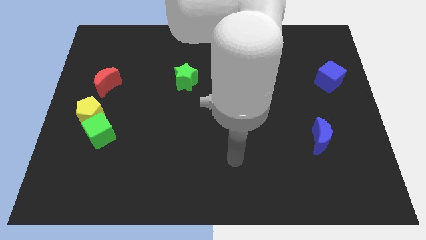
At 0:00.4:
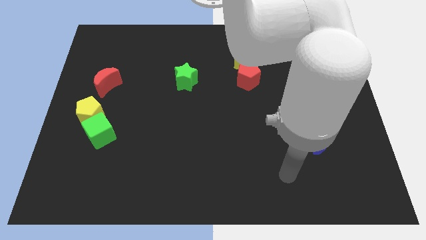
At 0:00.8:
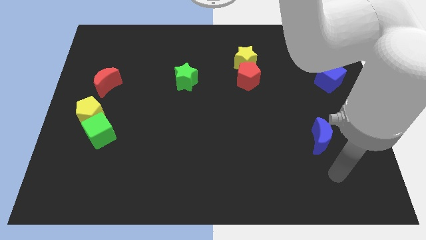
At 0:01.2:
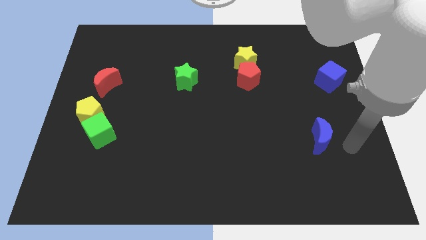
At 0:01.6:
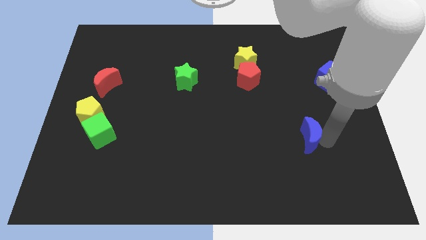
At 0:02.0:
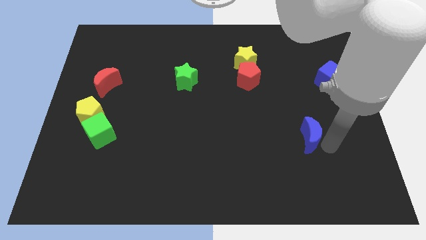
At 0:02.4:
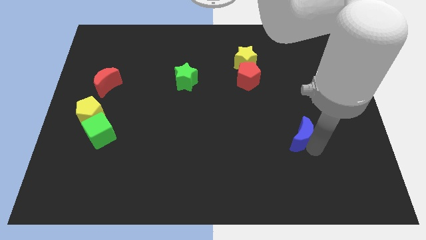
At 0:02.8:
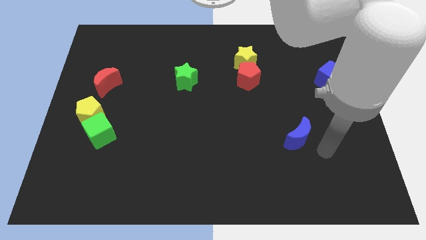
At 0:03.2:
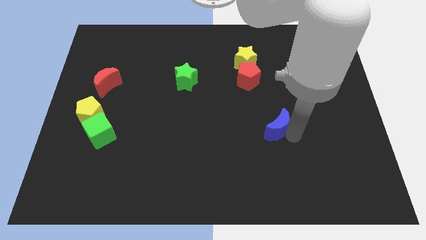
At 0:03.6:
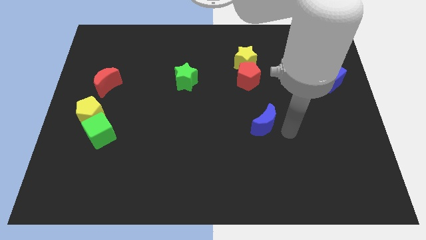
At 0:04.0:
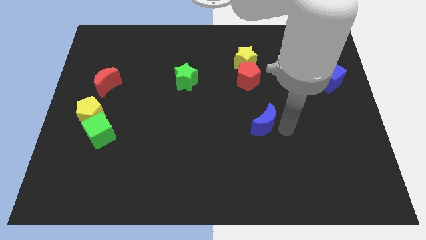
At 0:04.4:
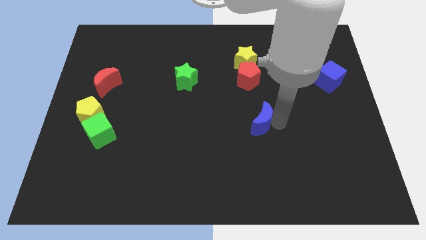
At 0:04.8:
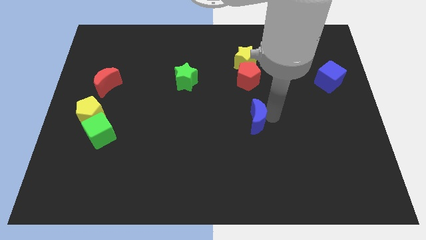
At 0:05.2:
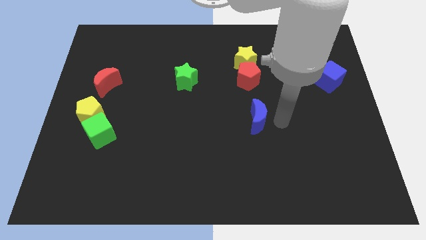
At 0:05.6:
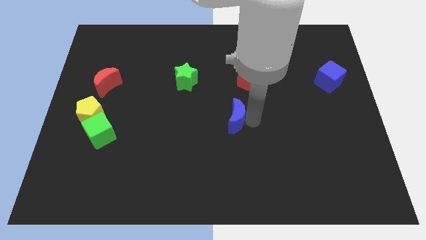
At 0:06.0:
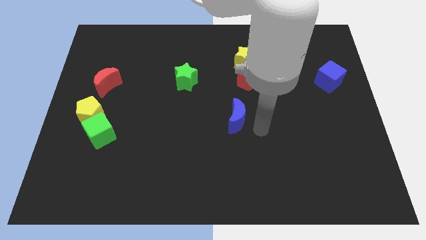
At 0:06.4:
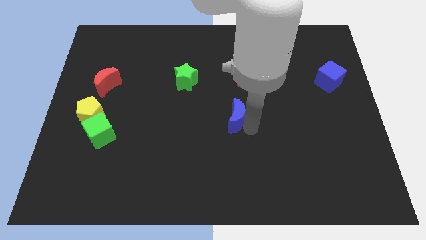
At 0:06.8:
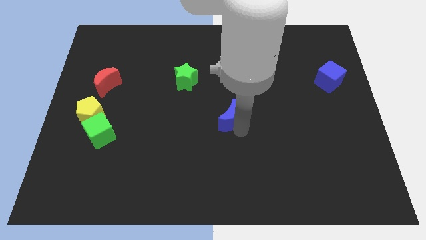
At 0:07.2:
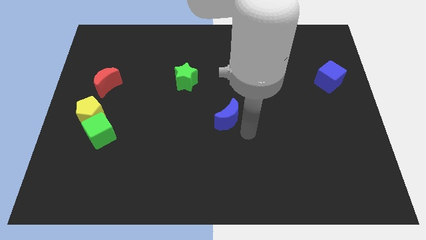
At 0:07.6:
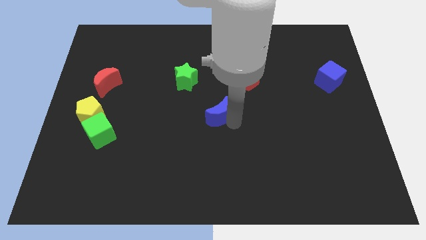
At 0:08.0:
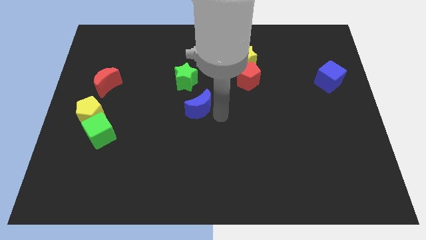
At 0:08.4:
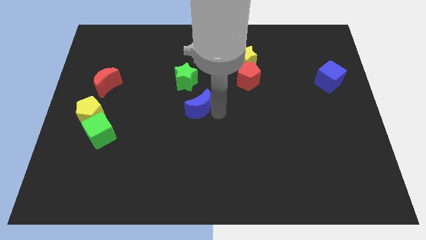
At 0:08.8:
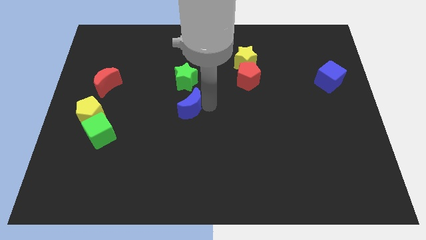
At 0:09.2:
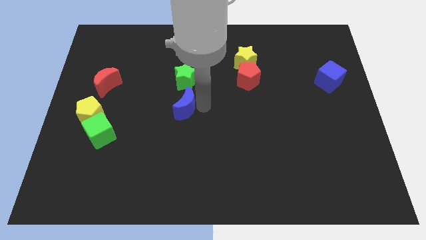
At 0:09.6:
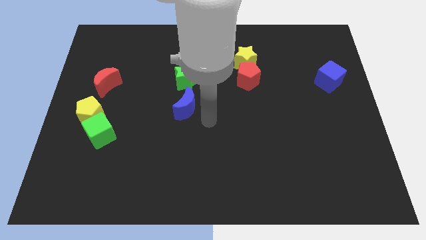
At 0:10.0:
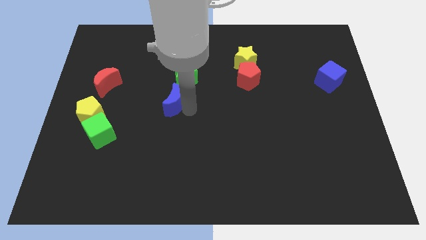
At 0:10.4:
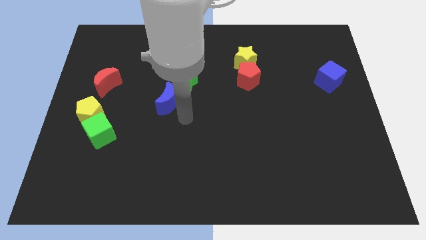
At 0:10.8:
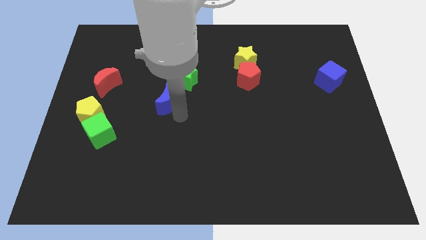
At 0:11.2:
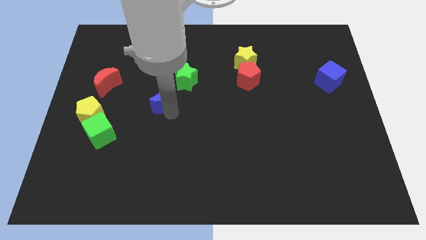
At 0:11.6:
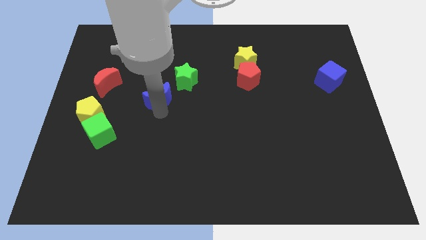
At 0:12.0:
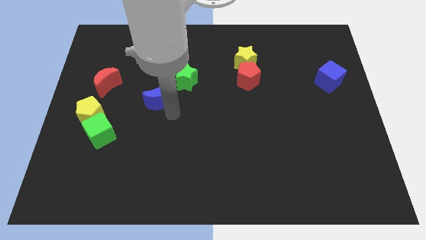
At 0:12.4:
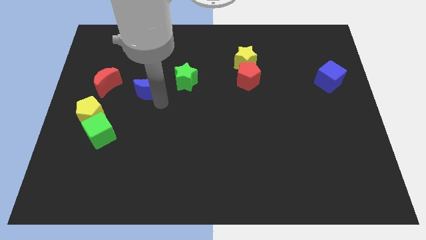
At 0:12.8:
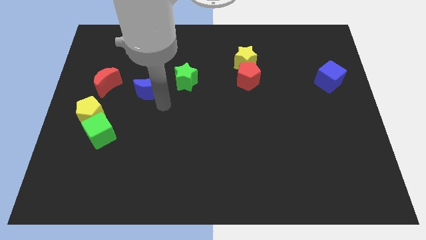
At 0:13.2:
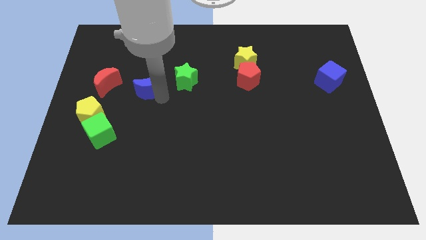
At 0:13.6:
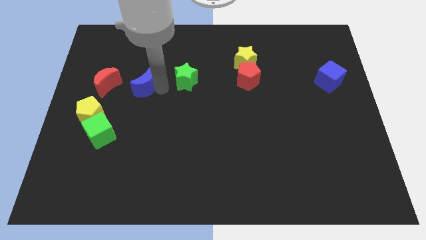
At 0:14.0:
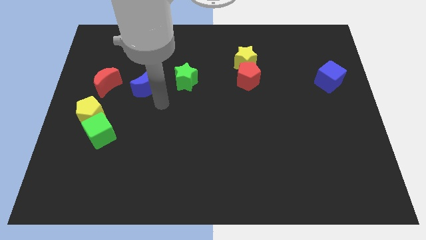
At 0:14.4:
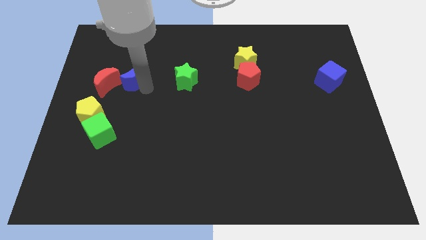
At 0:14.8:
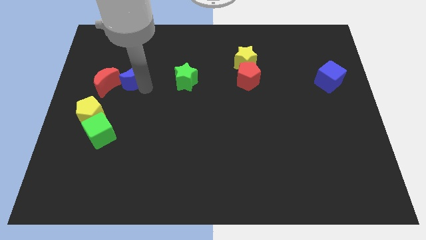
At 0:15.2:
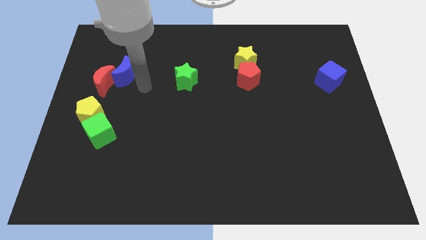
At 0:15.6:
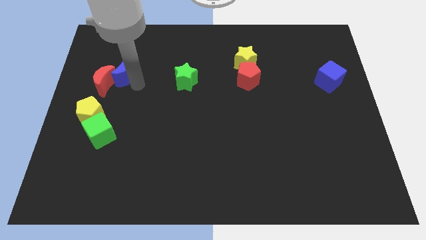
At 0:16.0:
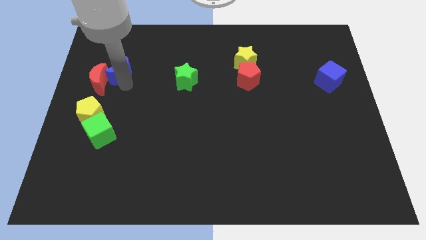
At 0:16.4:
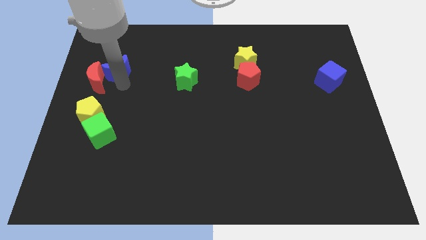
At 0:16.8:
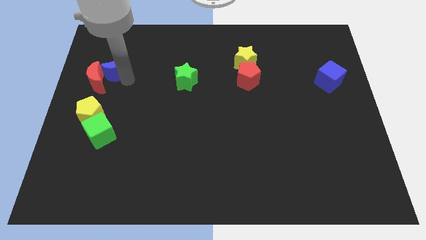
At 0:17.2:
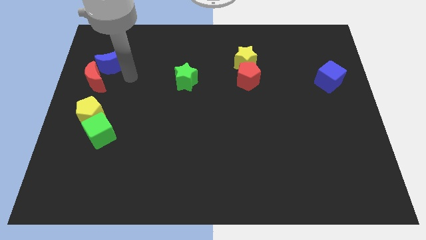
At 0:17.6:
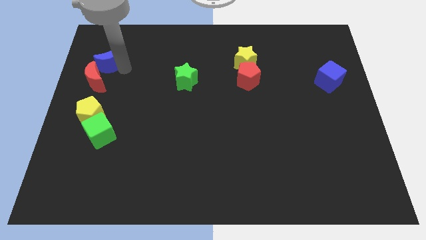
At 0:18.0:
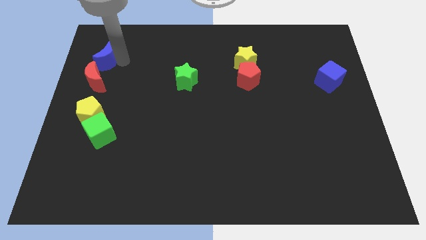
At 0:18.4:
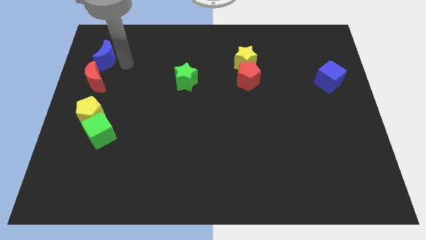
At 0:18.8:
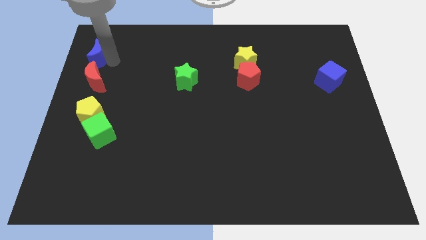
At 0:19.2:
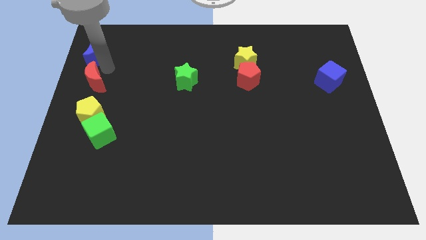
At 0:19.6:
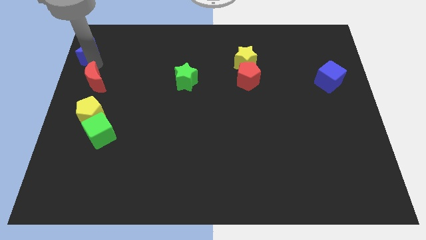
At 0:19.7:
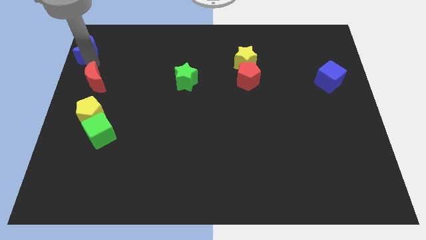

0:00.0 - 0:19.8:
move the blue moon to the top left corner

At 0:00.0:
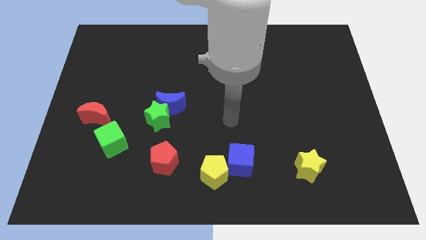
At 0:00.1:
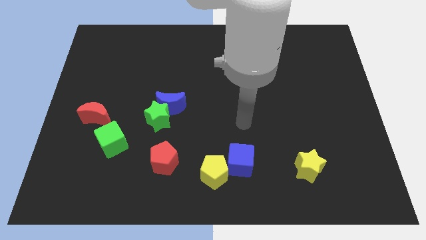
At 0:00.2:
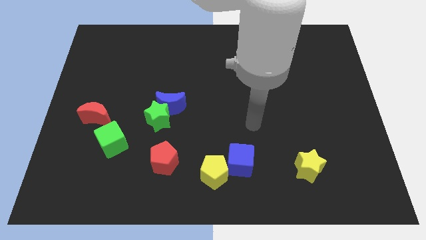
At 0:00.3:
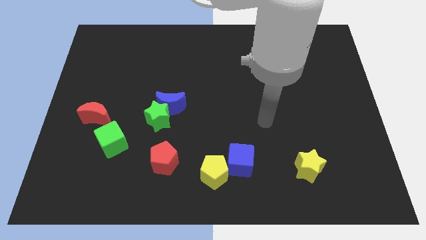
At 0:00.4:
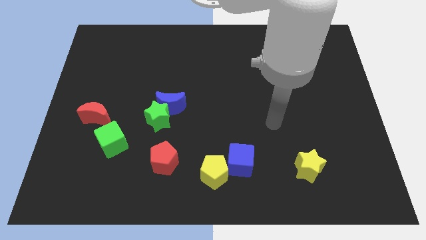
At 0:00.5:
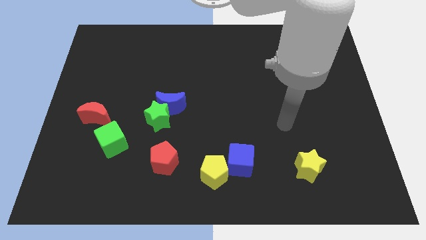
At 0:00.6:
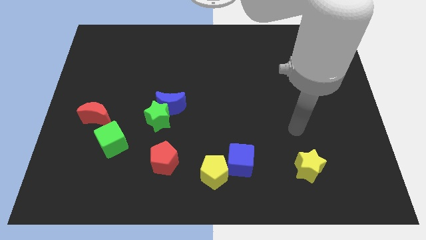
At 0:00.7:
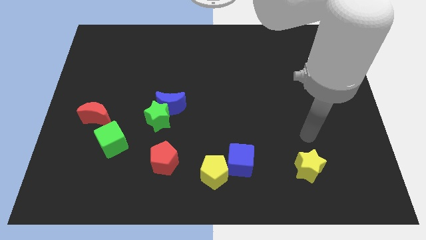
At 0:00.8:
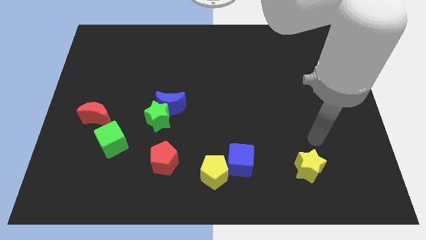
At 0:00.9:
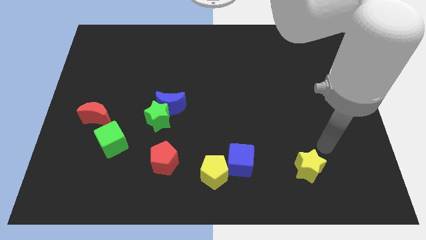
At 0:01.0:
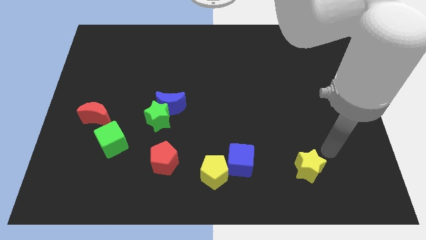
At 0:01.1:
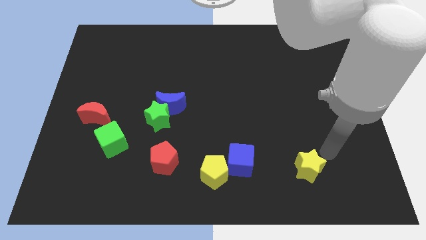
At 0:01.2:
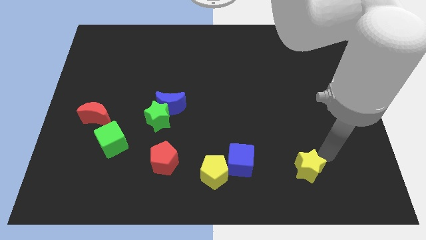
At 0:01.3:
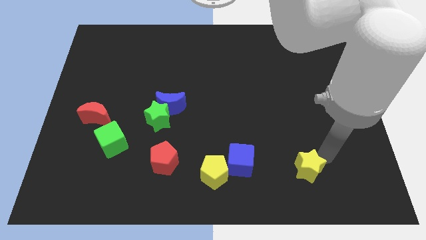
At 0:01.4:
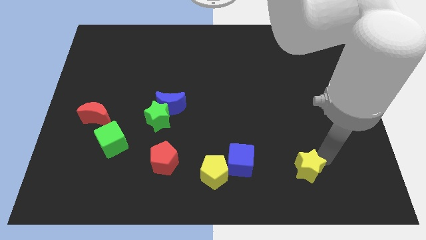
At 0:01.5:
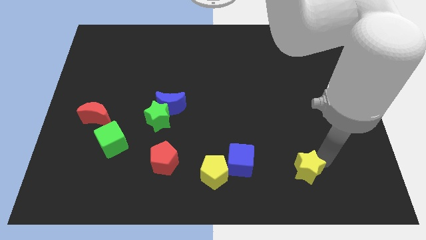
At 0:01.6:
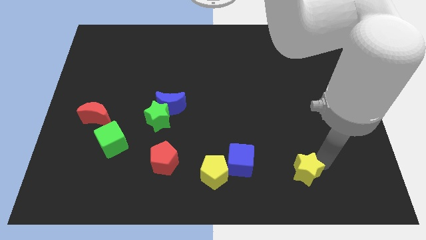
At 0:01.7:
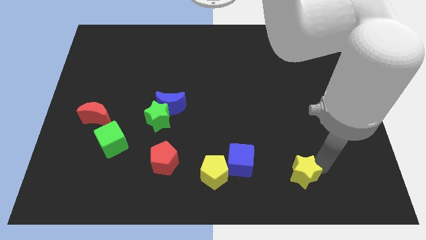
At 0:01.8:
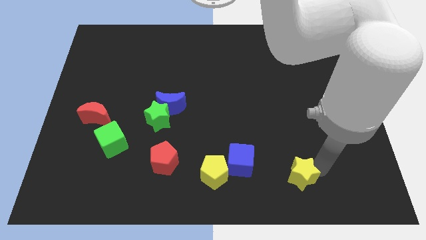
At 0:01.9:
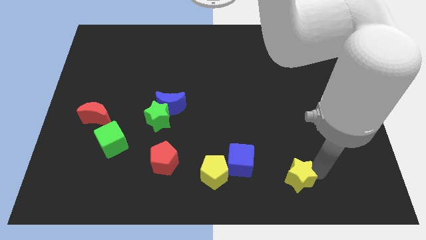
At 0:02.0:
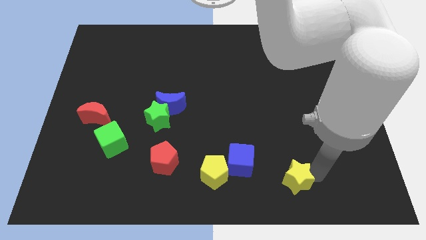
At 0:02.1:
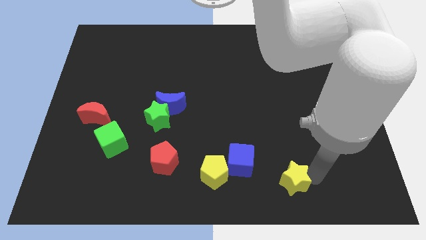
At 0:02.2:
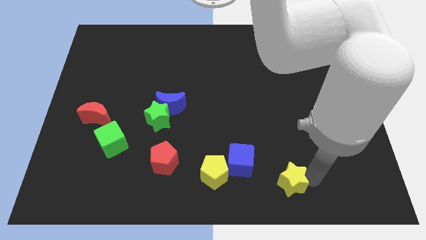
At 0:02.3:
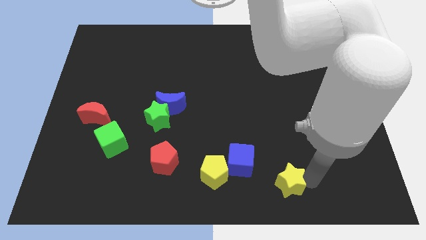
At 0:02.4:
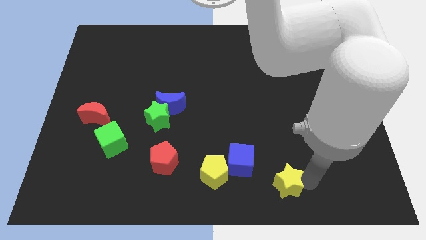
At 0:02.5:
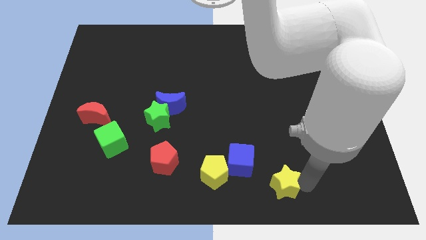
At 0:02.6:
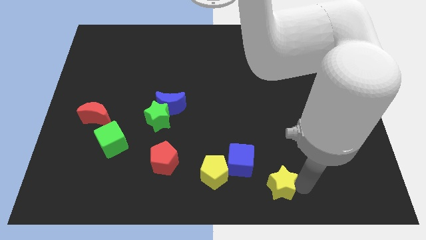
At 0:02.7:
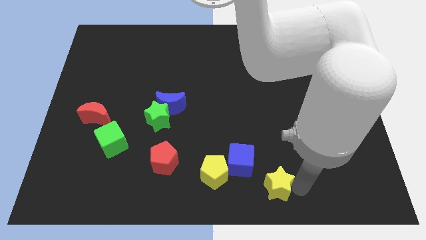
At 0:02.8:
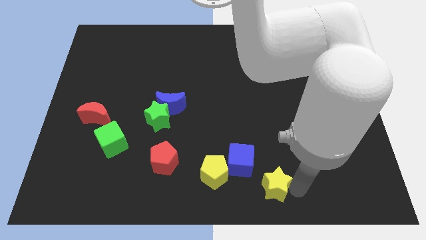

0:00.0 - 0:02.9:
move the yellow star to the bottom
